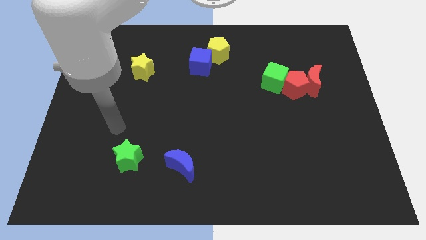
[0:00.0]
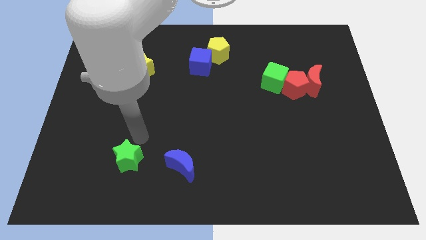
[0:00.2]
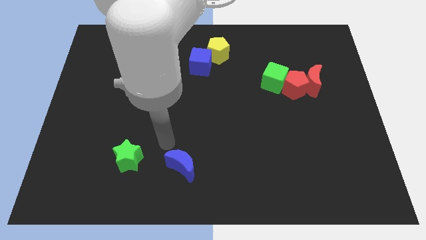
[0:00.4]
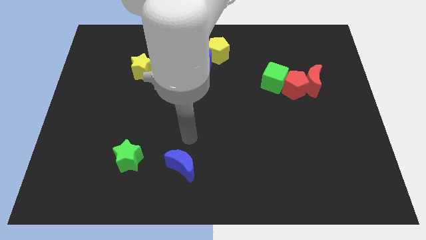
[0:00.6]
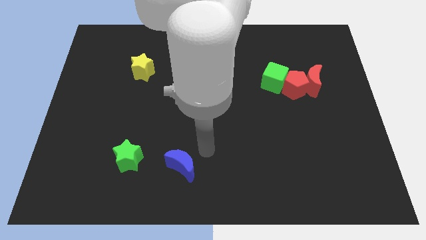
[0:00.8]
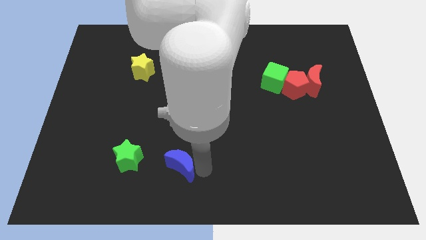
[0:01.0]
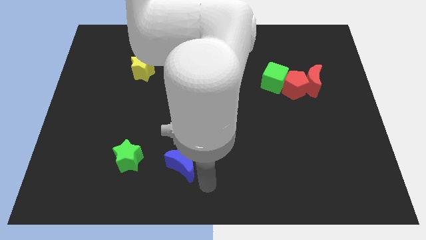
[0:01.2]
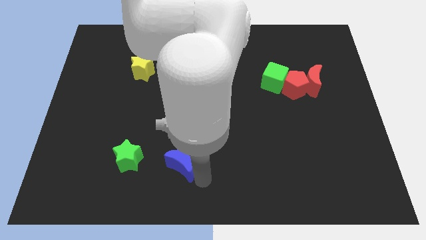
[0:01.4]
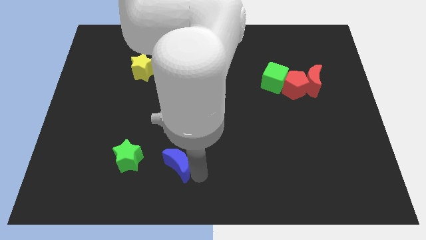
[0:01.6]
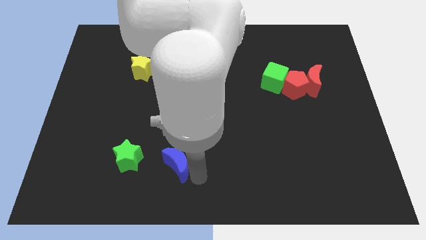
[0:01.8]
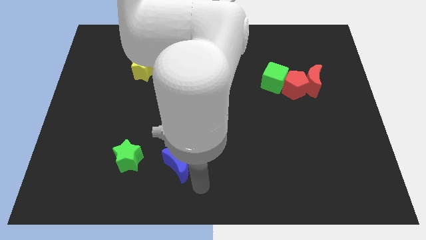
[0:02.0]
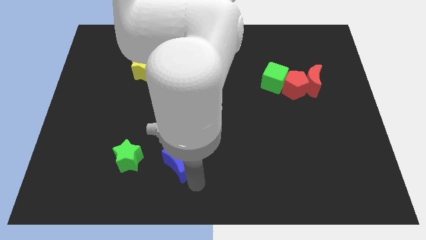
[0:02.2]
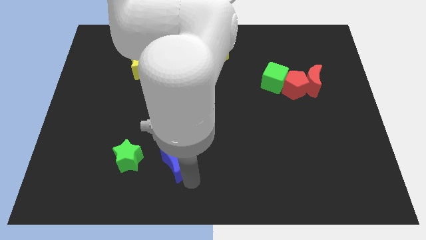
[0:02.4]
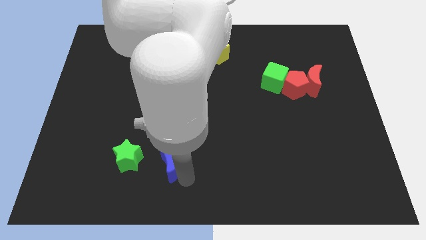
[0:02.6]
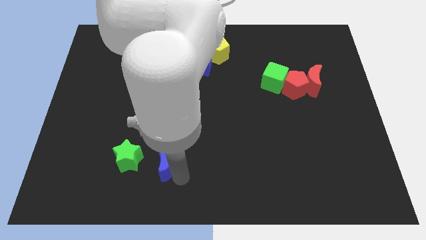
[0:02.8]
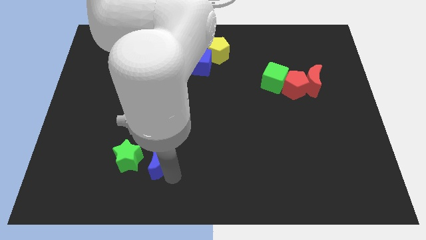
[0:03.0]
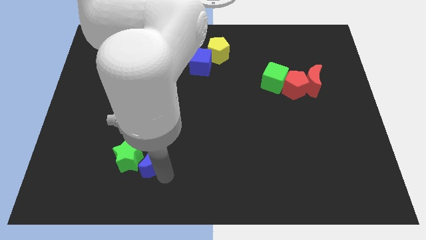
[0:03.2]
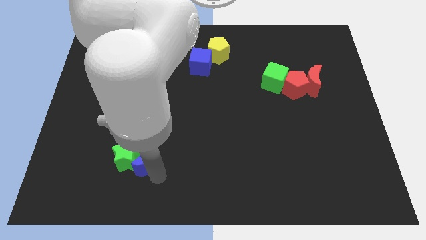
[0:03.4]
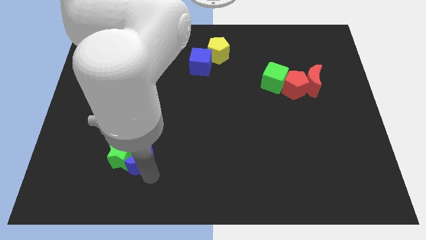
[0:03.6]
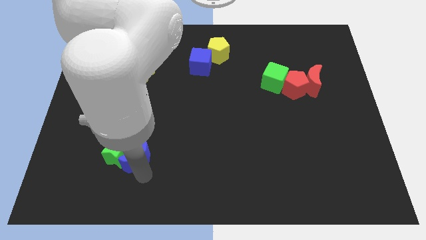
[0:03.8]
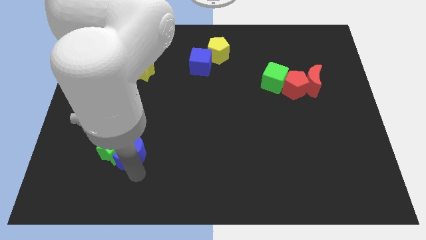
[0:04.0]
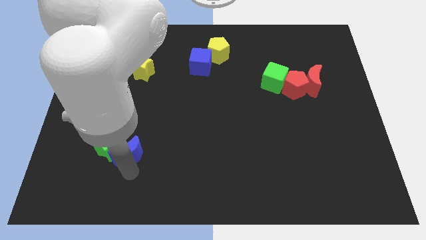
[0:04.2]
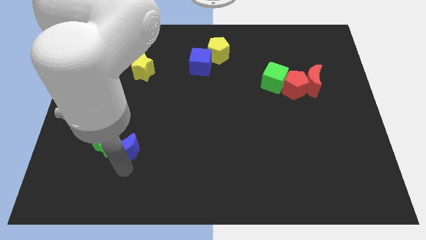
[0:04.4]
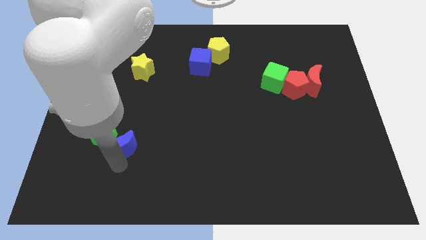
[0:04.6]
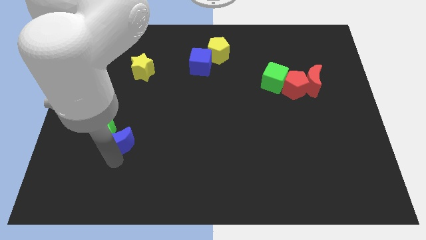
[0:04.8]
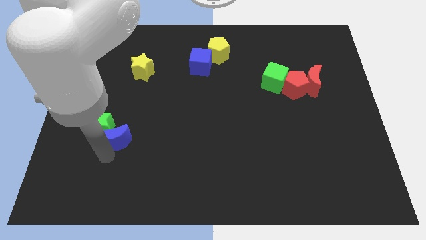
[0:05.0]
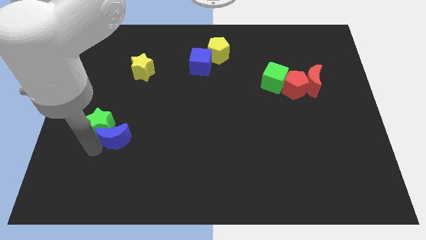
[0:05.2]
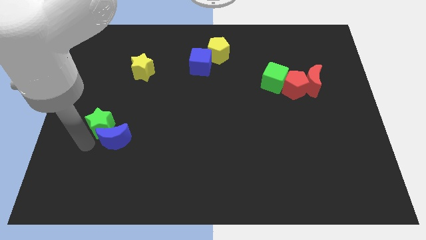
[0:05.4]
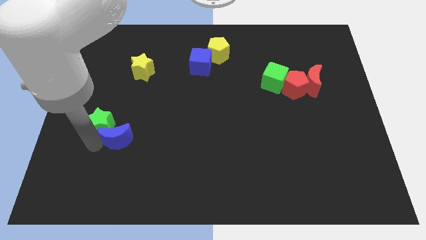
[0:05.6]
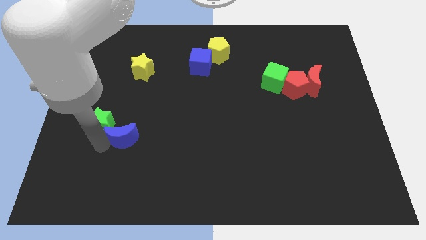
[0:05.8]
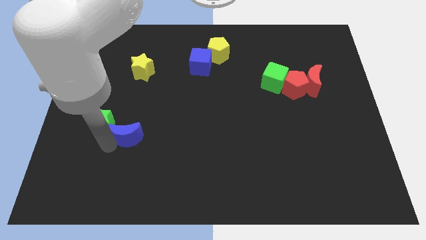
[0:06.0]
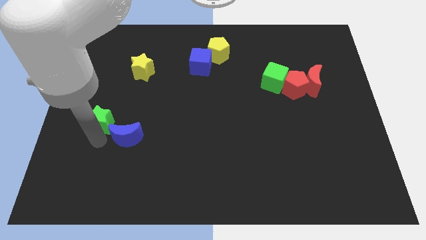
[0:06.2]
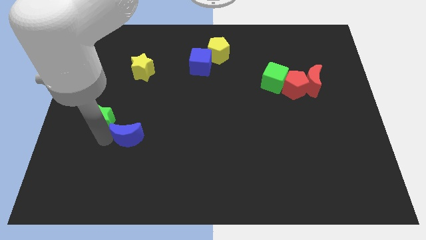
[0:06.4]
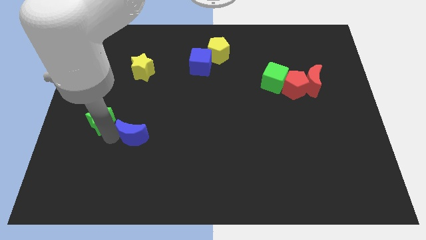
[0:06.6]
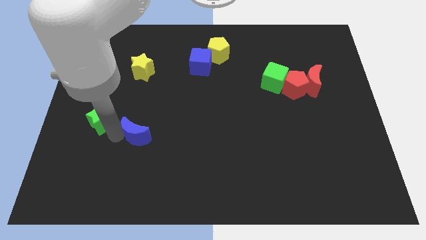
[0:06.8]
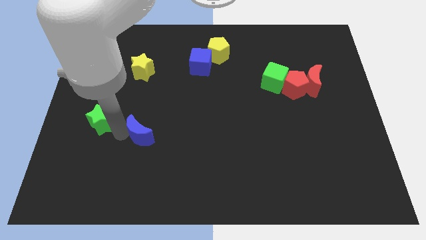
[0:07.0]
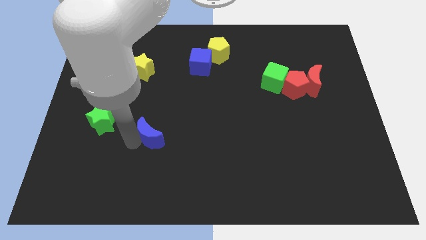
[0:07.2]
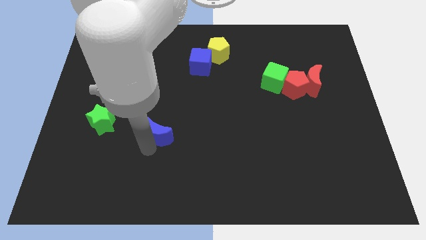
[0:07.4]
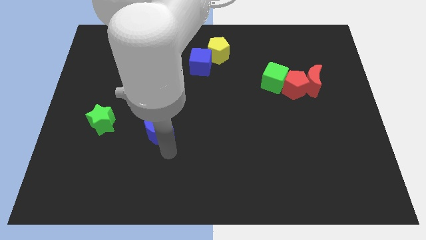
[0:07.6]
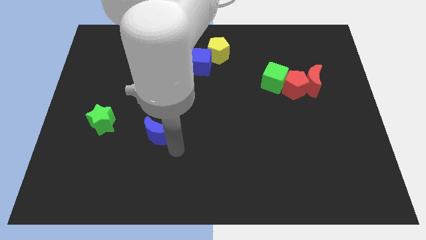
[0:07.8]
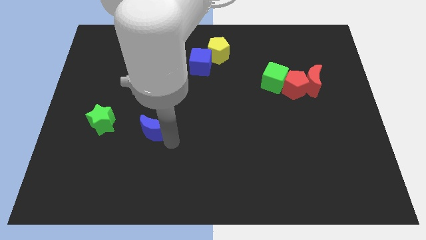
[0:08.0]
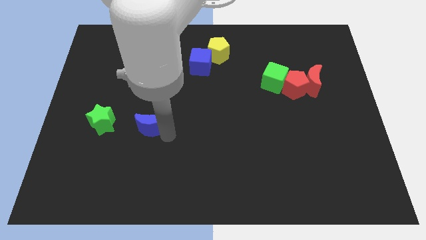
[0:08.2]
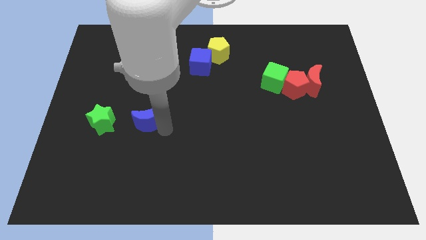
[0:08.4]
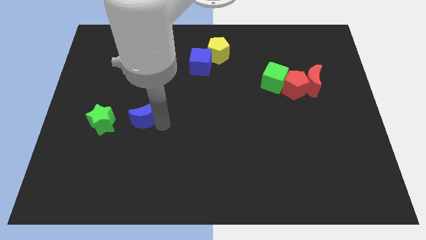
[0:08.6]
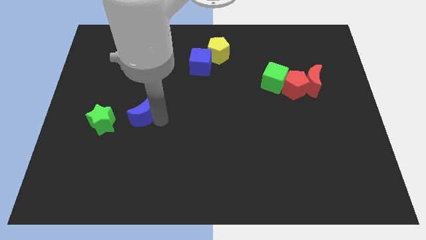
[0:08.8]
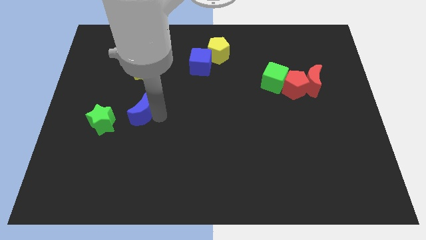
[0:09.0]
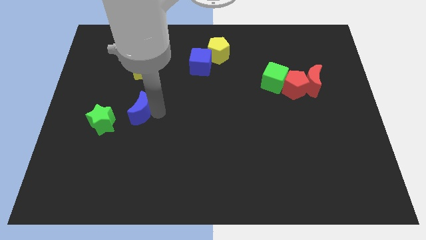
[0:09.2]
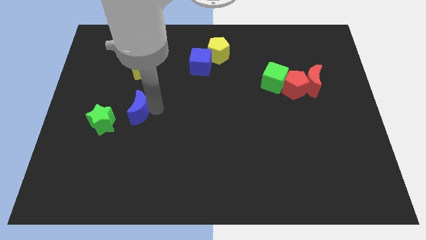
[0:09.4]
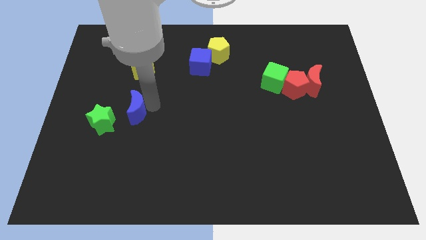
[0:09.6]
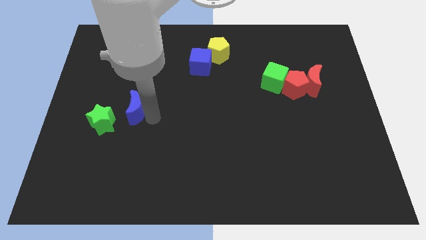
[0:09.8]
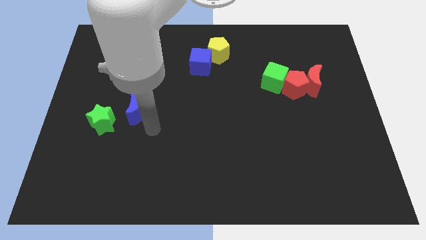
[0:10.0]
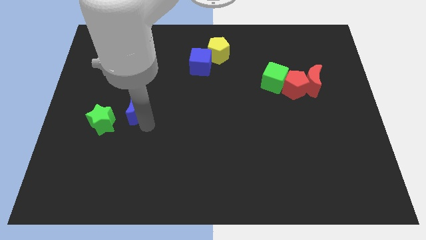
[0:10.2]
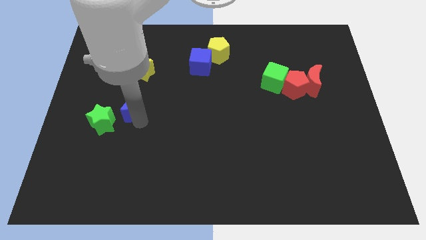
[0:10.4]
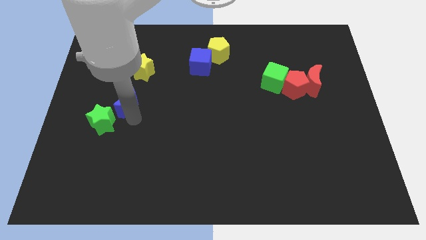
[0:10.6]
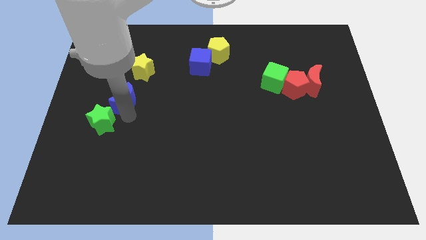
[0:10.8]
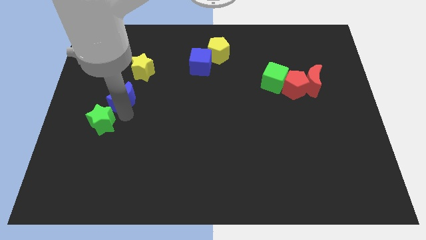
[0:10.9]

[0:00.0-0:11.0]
move the blue moon to the bottom left of the yellow star

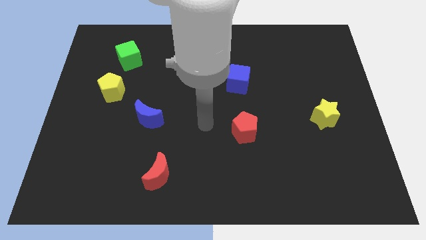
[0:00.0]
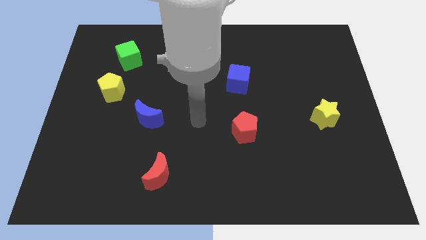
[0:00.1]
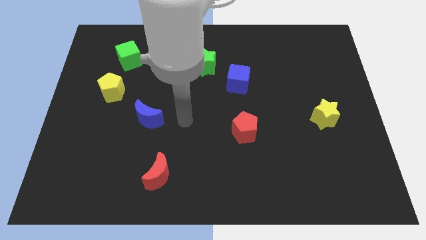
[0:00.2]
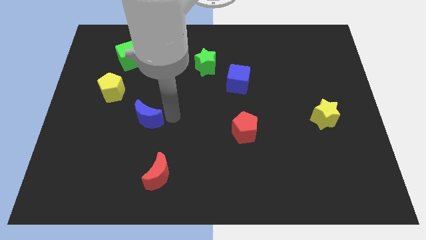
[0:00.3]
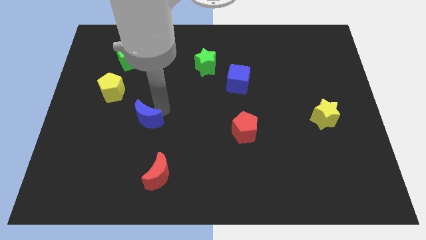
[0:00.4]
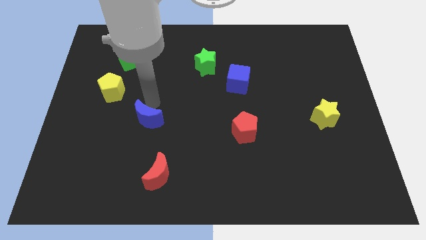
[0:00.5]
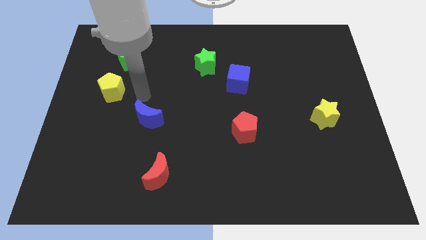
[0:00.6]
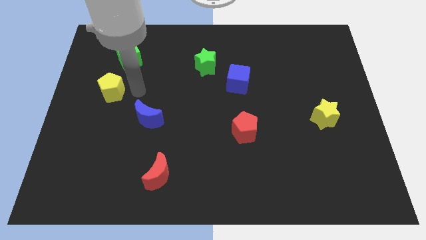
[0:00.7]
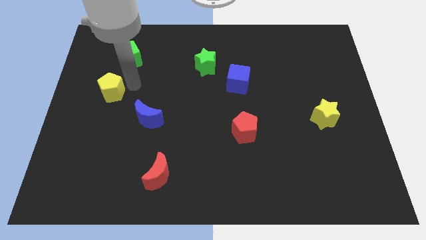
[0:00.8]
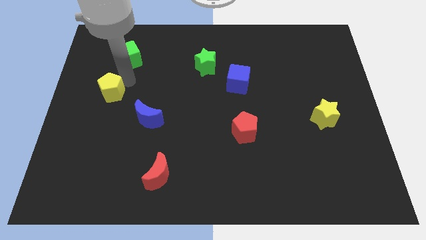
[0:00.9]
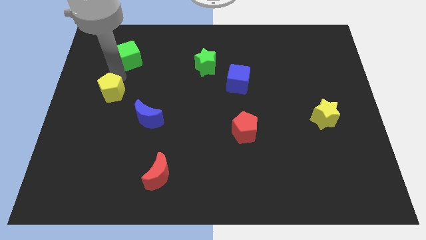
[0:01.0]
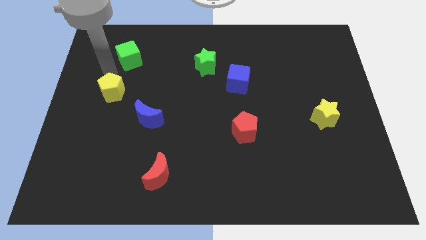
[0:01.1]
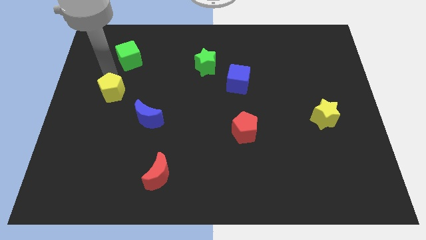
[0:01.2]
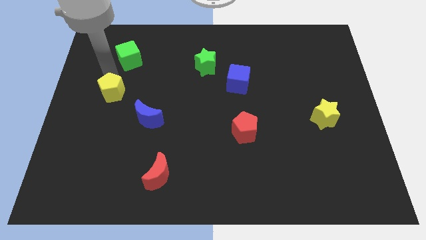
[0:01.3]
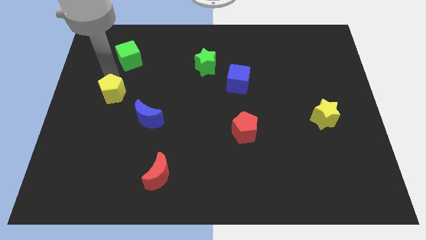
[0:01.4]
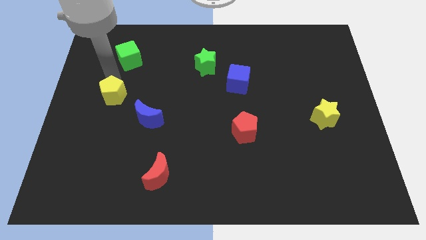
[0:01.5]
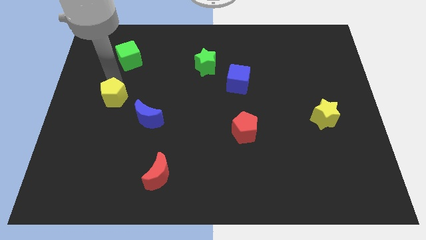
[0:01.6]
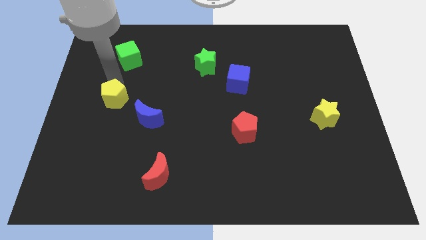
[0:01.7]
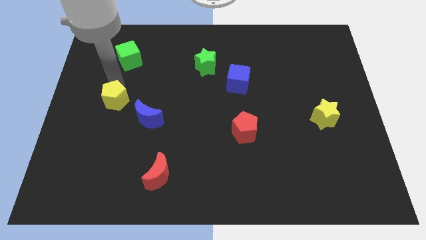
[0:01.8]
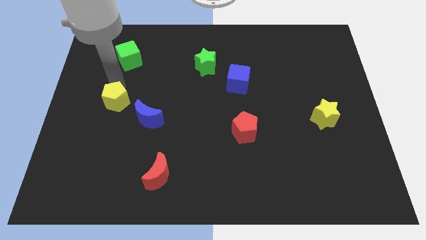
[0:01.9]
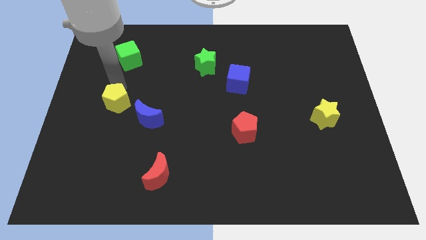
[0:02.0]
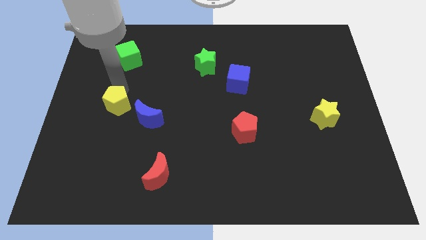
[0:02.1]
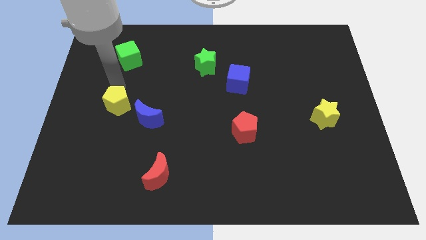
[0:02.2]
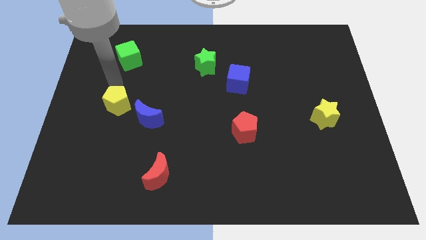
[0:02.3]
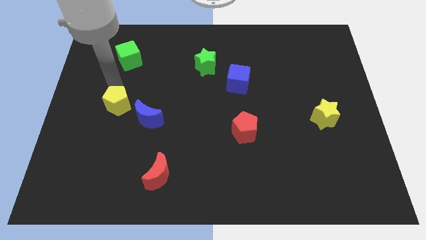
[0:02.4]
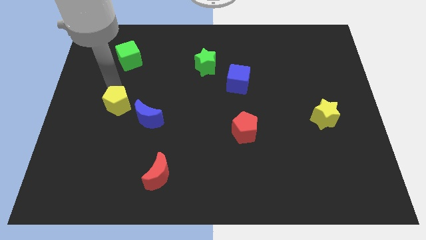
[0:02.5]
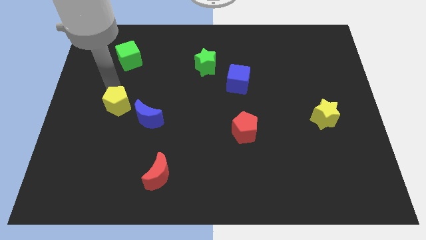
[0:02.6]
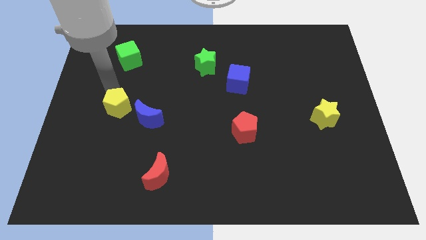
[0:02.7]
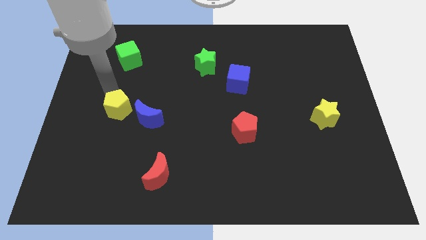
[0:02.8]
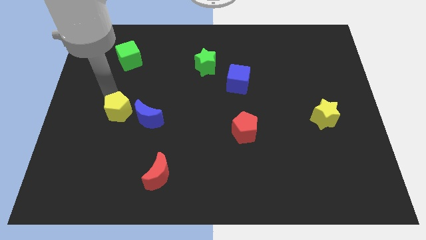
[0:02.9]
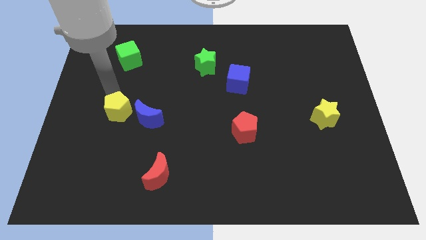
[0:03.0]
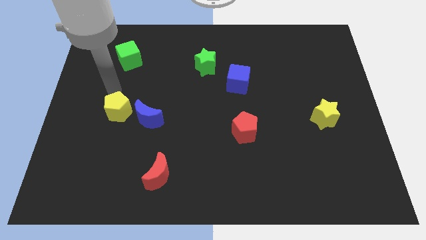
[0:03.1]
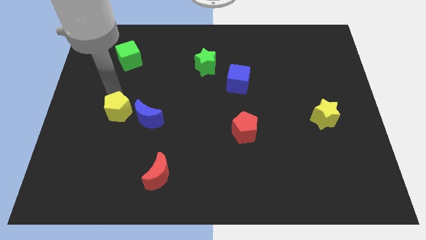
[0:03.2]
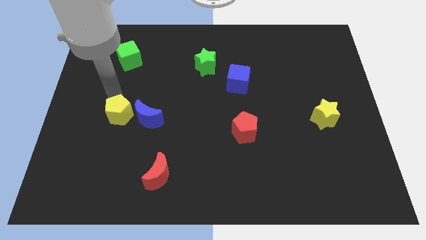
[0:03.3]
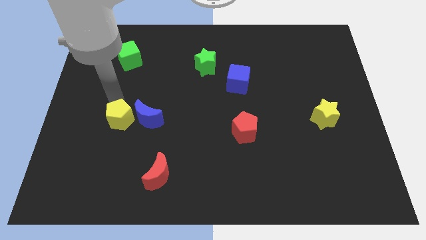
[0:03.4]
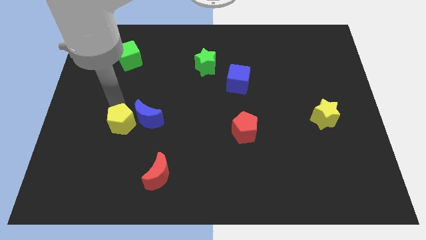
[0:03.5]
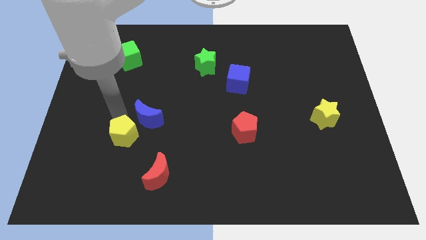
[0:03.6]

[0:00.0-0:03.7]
move the yellow pentagon to the bottom side of the blue moon
